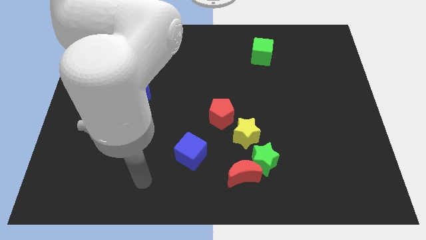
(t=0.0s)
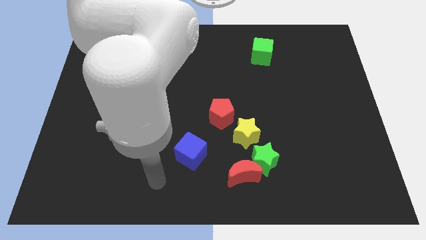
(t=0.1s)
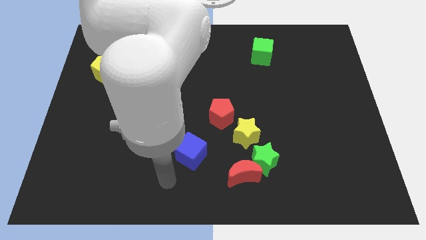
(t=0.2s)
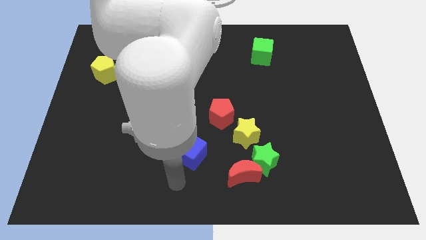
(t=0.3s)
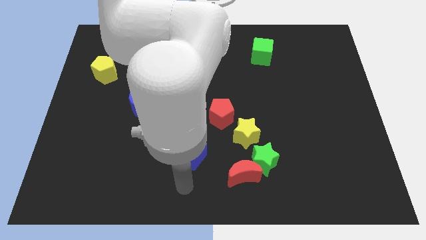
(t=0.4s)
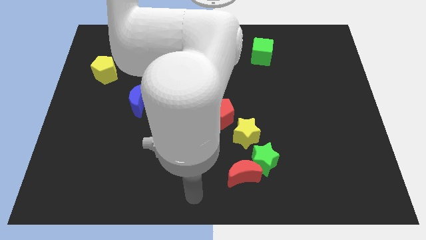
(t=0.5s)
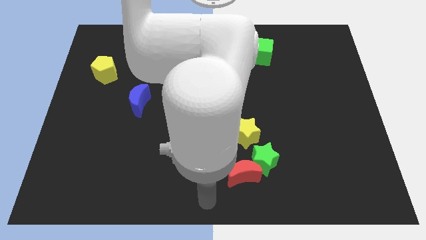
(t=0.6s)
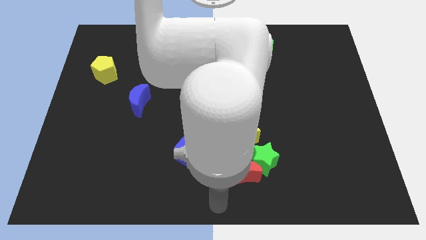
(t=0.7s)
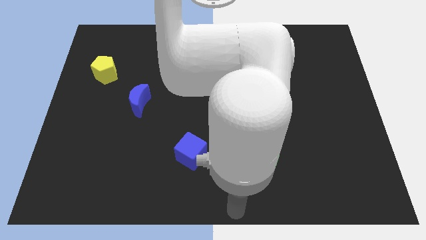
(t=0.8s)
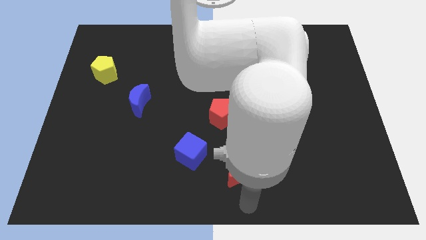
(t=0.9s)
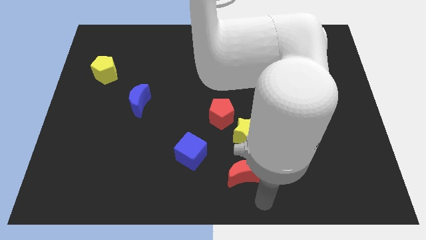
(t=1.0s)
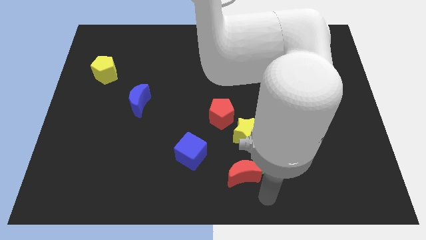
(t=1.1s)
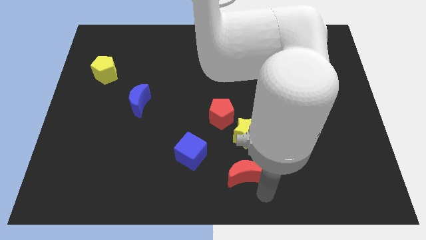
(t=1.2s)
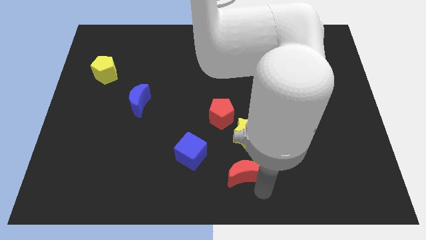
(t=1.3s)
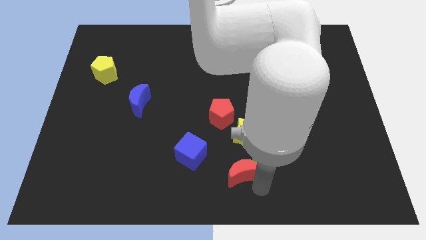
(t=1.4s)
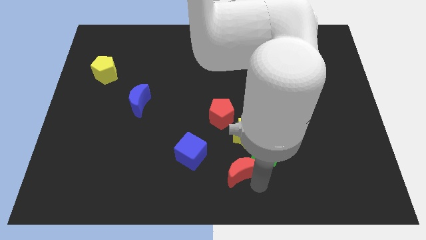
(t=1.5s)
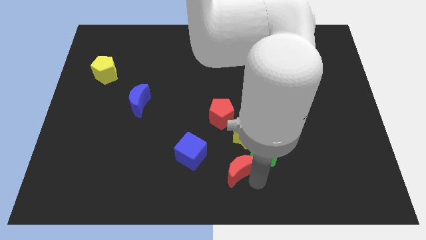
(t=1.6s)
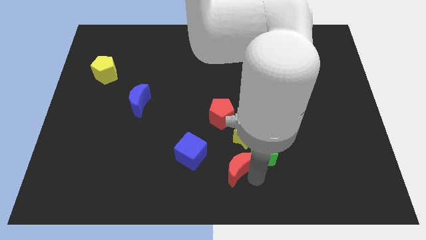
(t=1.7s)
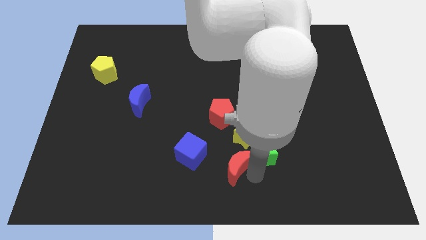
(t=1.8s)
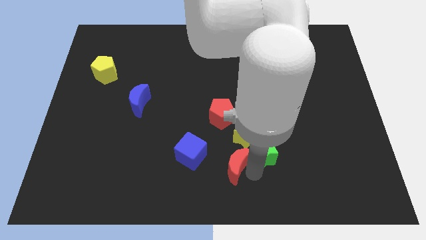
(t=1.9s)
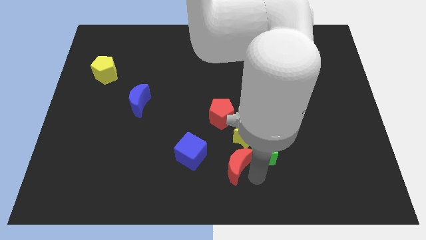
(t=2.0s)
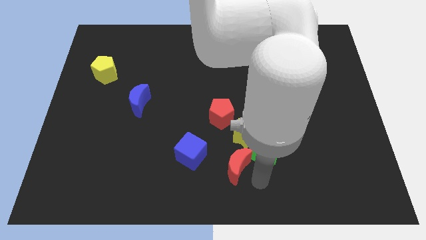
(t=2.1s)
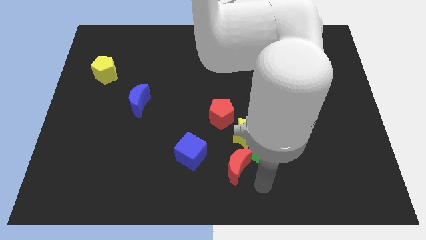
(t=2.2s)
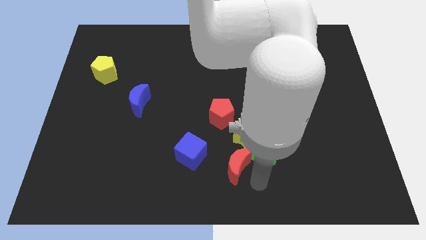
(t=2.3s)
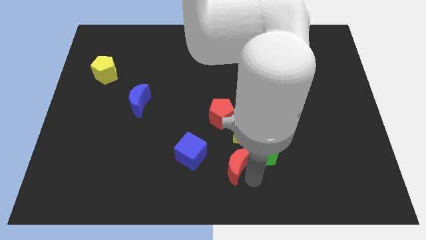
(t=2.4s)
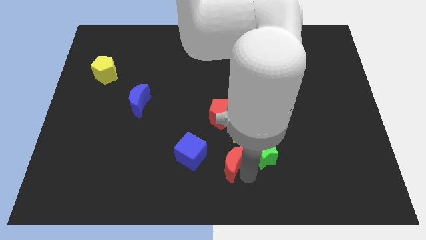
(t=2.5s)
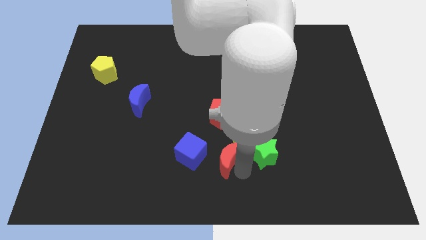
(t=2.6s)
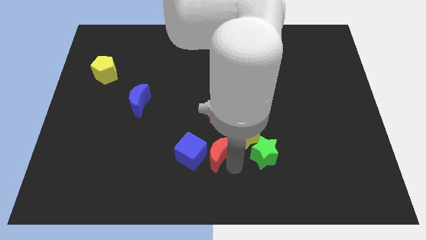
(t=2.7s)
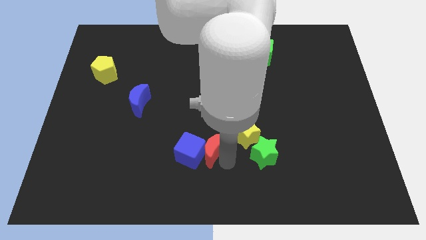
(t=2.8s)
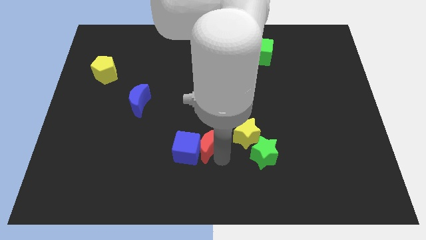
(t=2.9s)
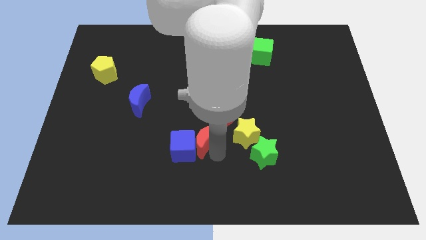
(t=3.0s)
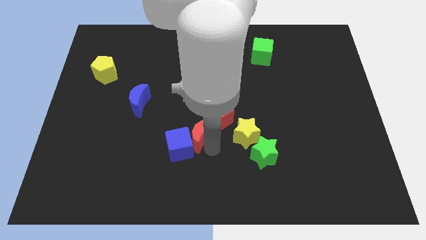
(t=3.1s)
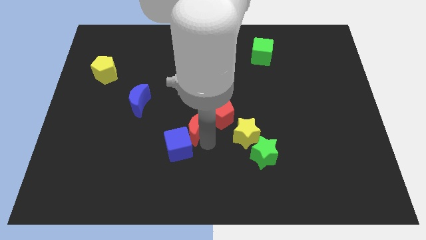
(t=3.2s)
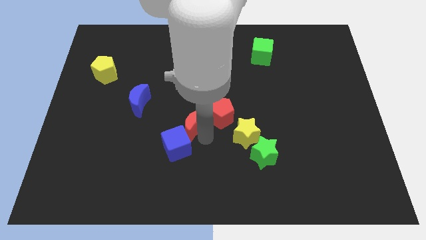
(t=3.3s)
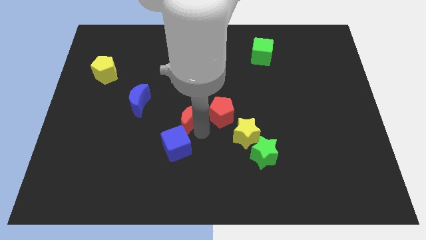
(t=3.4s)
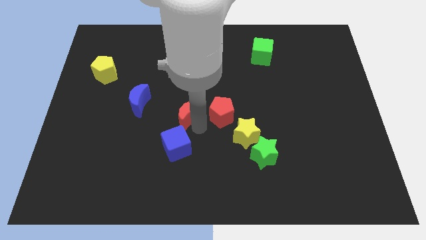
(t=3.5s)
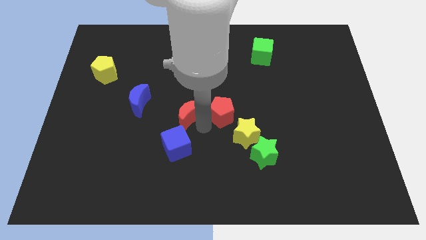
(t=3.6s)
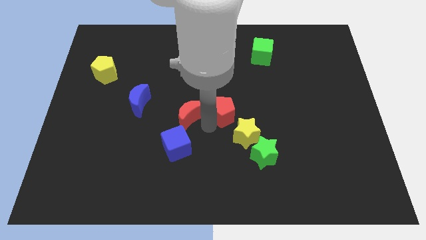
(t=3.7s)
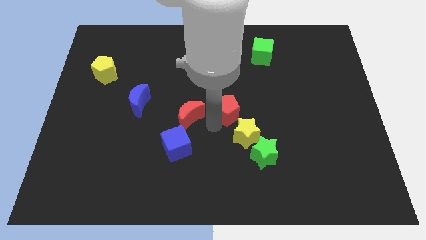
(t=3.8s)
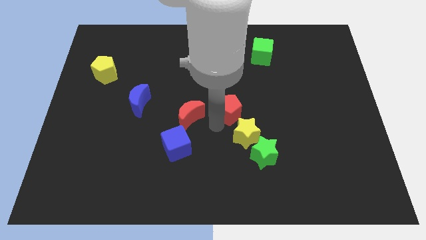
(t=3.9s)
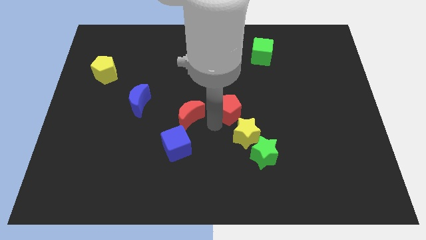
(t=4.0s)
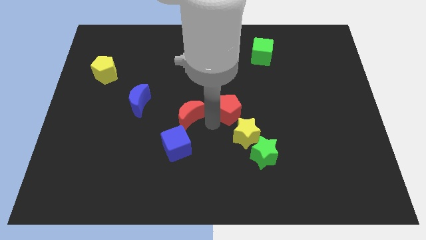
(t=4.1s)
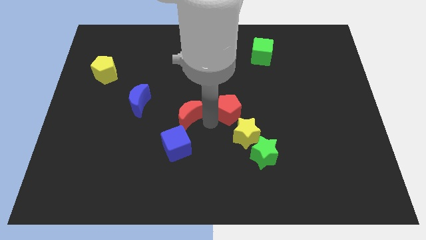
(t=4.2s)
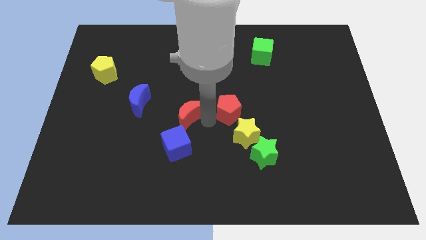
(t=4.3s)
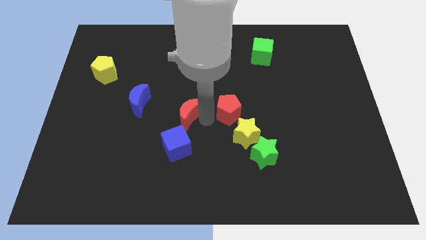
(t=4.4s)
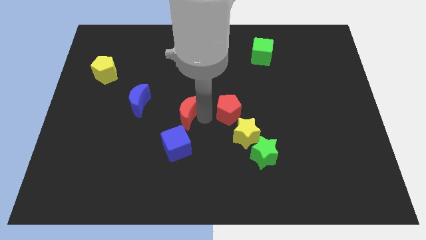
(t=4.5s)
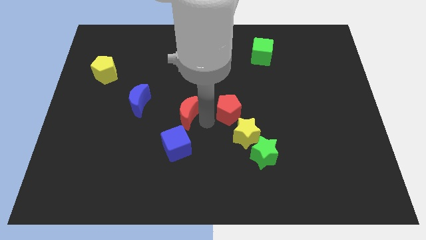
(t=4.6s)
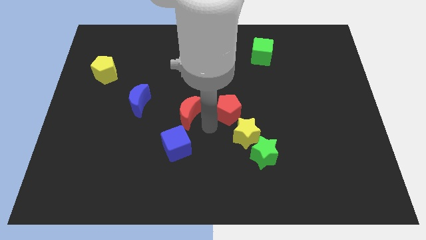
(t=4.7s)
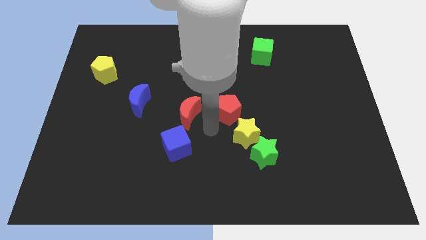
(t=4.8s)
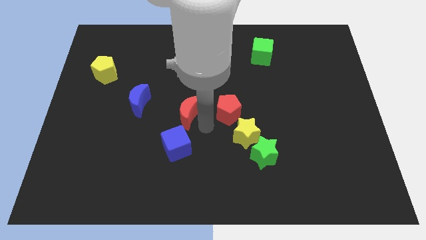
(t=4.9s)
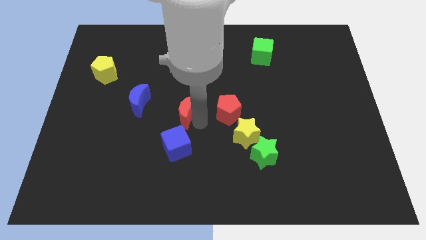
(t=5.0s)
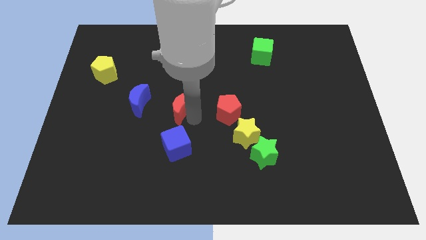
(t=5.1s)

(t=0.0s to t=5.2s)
move the red moon up and left diagonally

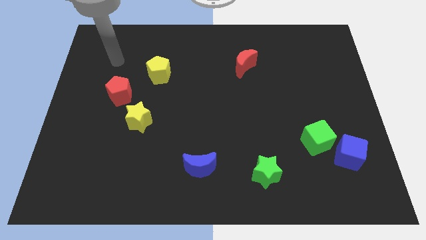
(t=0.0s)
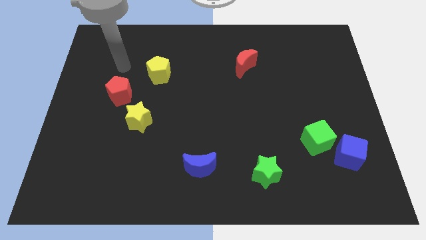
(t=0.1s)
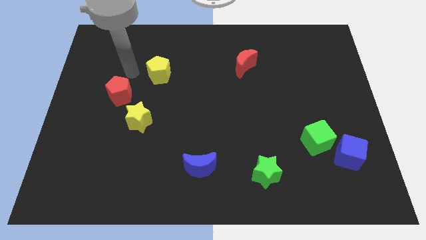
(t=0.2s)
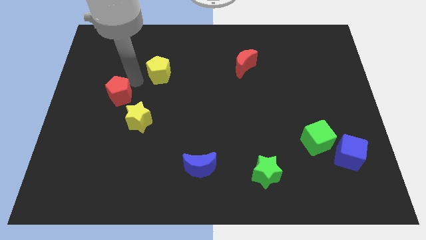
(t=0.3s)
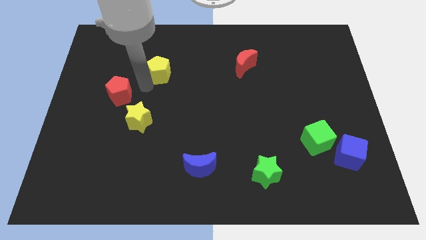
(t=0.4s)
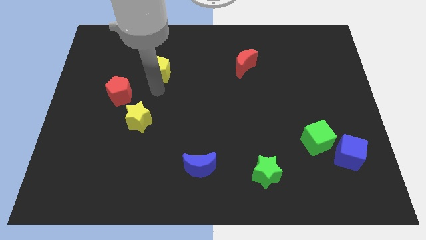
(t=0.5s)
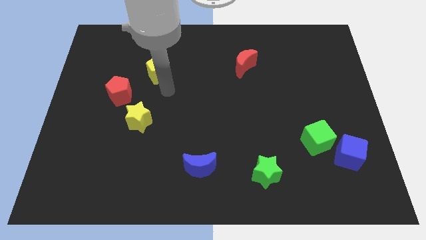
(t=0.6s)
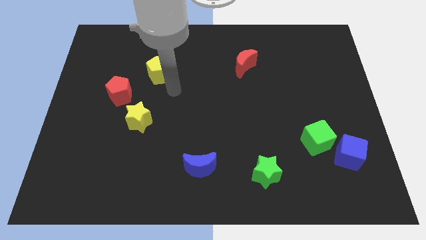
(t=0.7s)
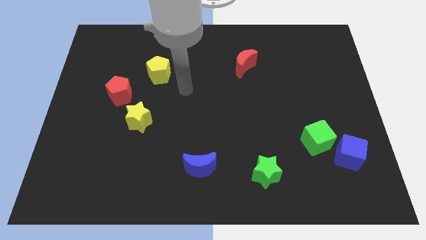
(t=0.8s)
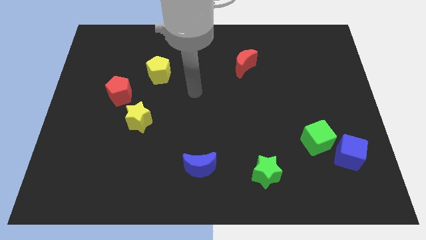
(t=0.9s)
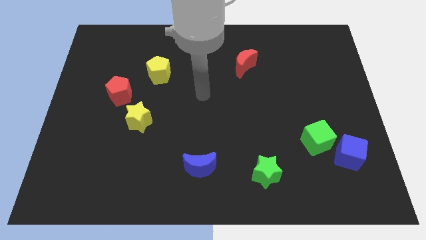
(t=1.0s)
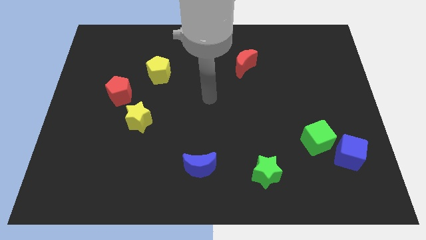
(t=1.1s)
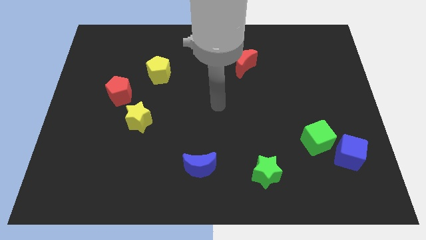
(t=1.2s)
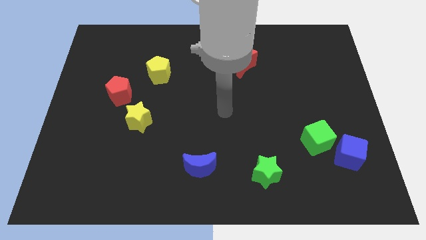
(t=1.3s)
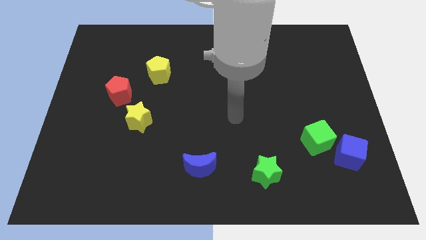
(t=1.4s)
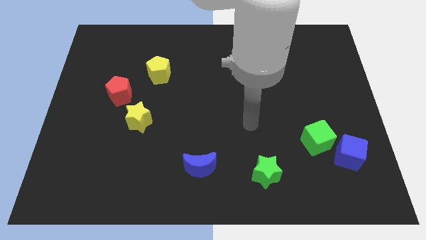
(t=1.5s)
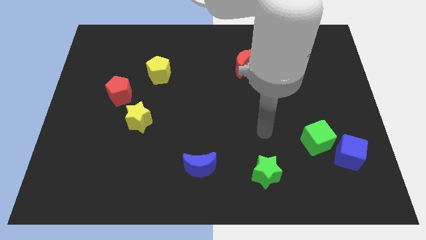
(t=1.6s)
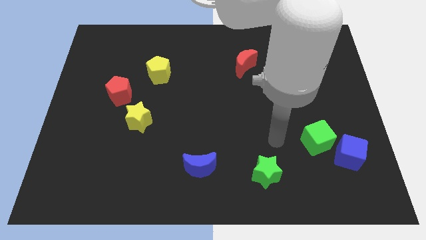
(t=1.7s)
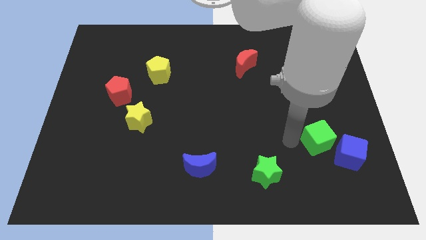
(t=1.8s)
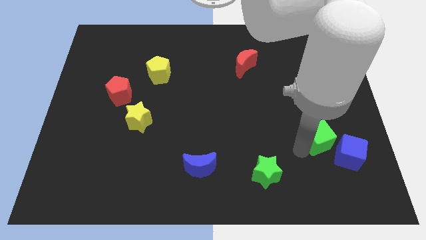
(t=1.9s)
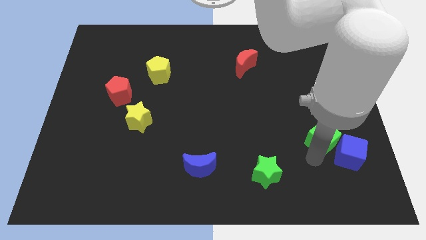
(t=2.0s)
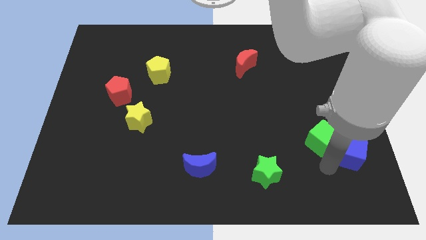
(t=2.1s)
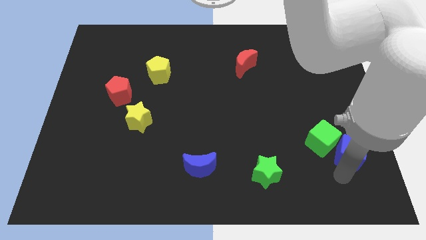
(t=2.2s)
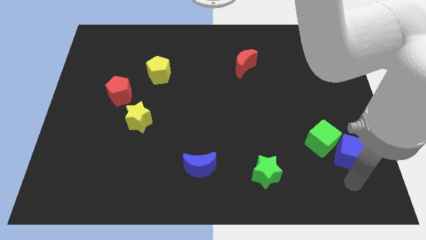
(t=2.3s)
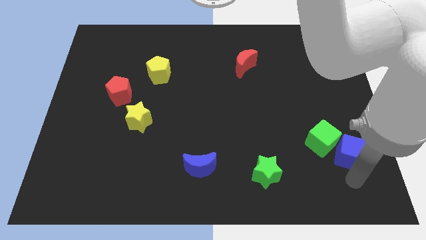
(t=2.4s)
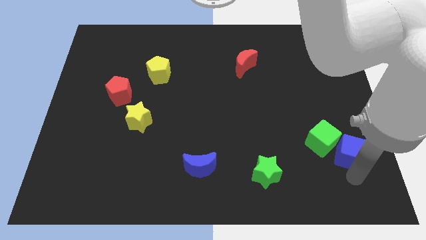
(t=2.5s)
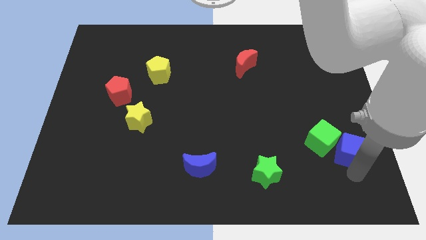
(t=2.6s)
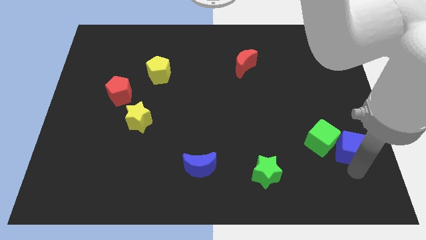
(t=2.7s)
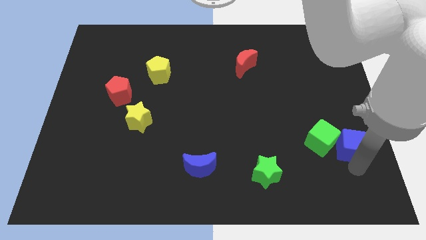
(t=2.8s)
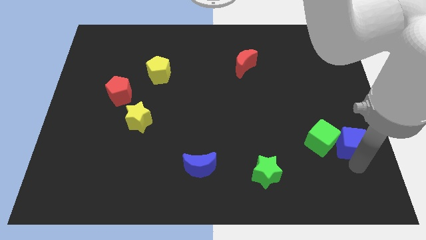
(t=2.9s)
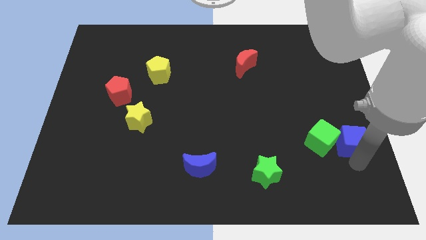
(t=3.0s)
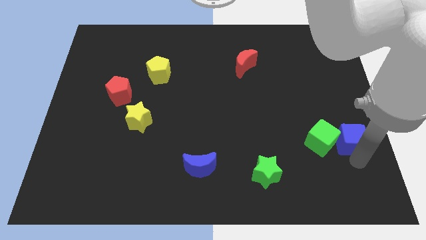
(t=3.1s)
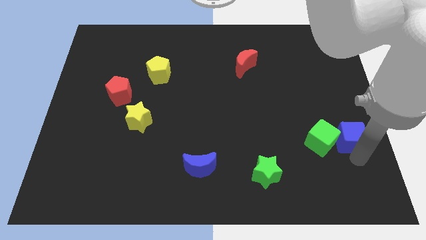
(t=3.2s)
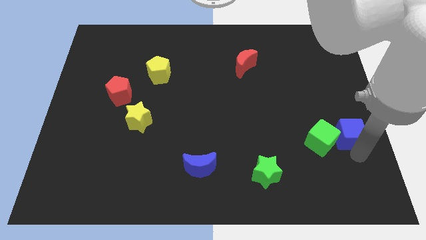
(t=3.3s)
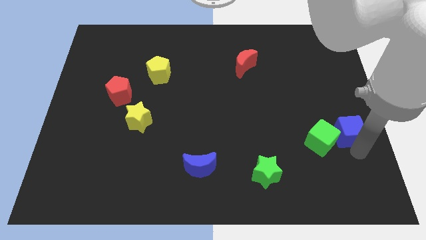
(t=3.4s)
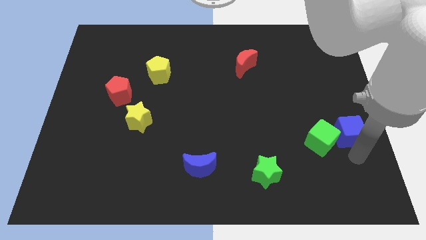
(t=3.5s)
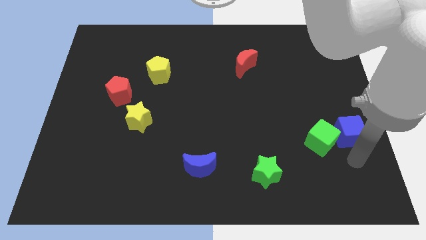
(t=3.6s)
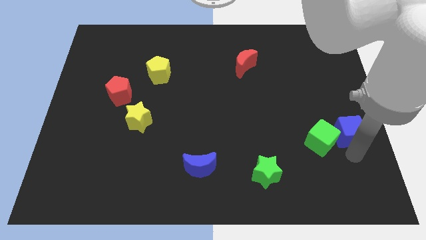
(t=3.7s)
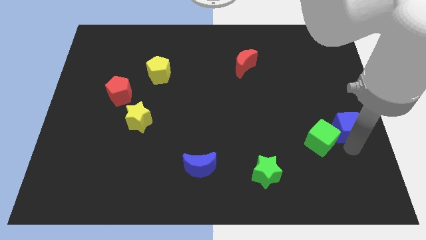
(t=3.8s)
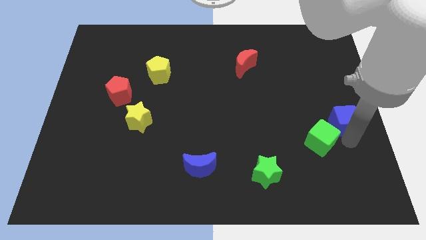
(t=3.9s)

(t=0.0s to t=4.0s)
move the blue cube somewhat upwards
